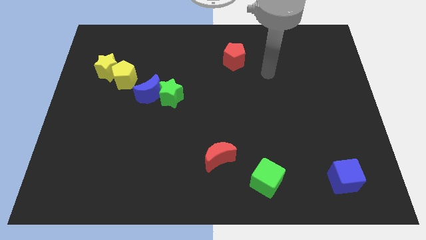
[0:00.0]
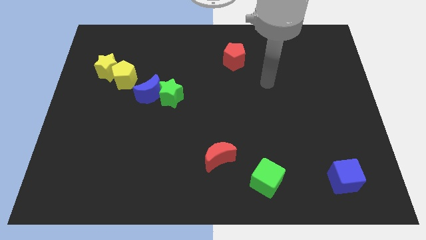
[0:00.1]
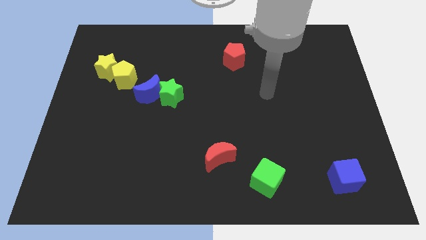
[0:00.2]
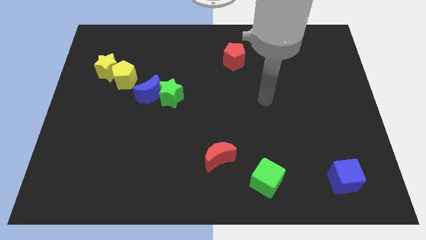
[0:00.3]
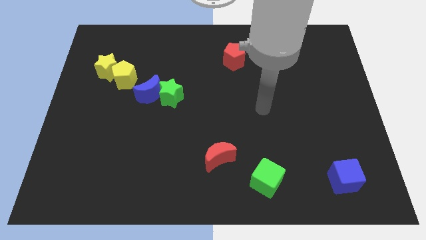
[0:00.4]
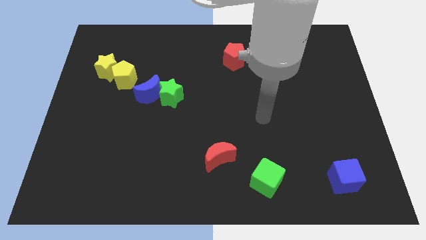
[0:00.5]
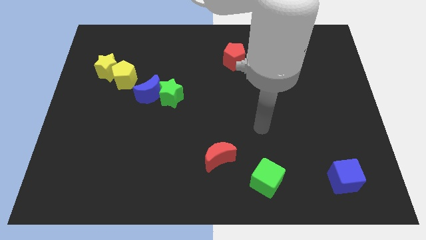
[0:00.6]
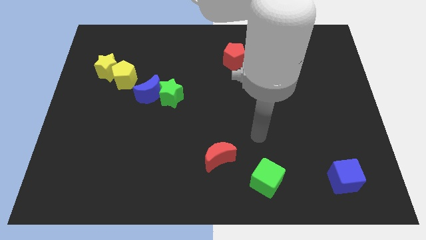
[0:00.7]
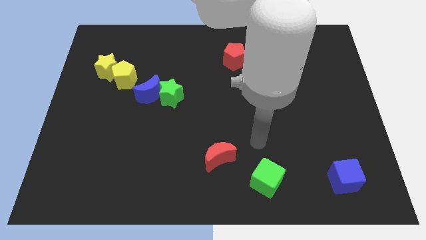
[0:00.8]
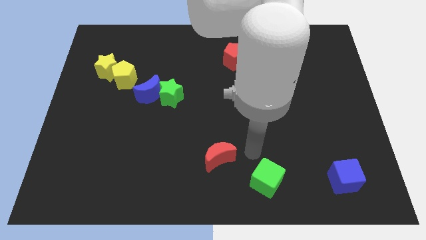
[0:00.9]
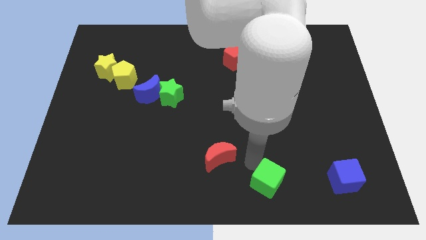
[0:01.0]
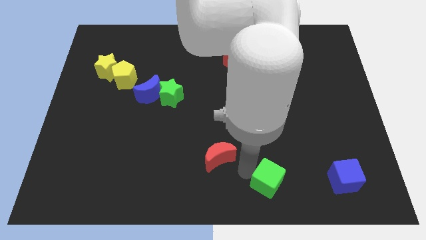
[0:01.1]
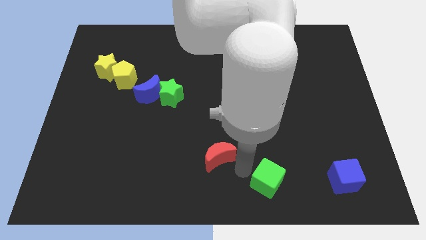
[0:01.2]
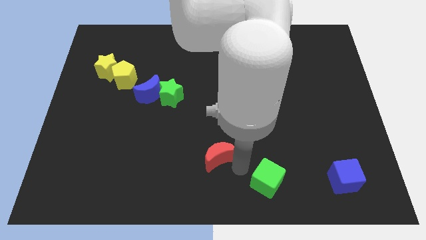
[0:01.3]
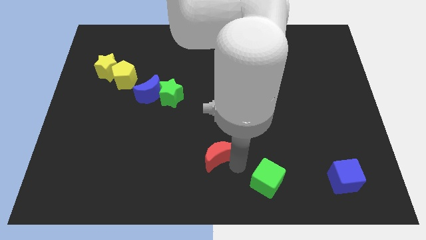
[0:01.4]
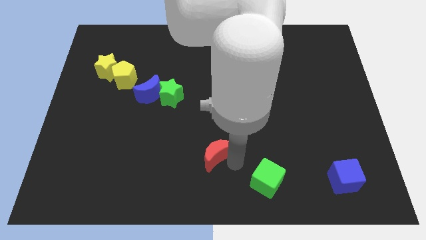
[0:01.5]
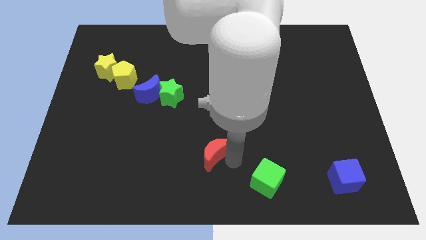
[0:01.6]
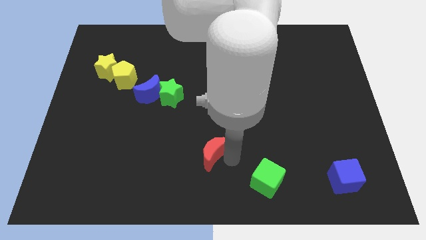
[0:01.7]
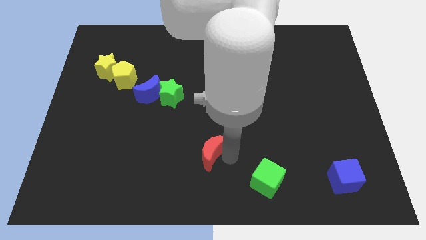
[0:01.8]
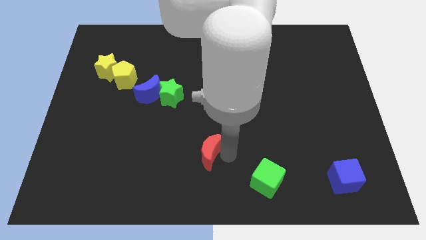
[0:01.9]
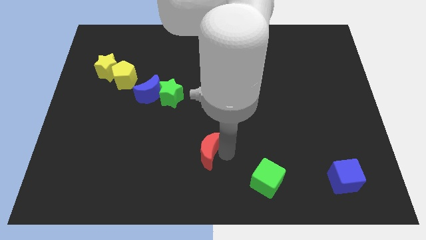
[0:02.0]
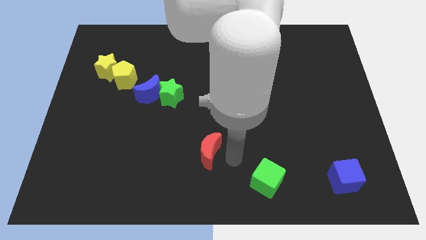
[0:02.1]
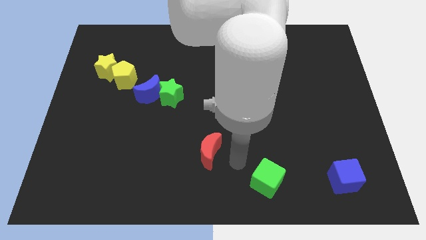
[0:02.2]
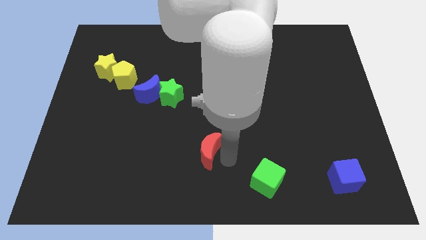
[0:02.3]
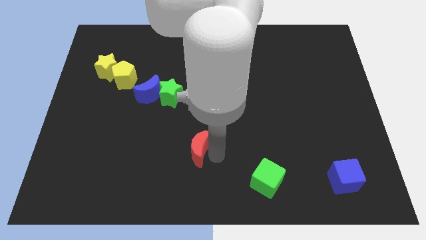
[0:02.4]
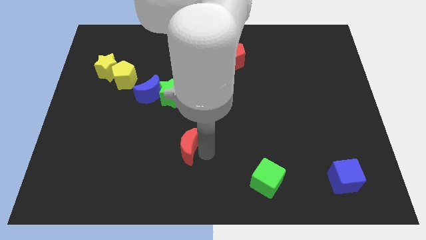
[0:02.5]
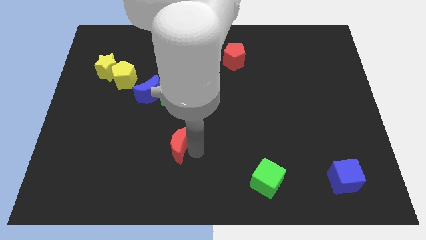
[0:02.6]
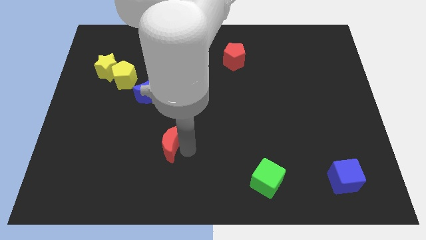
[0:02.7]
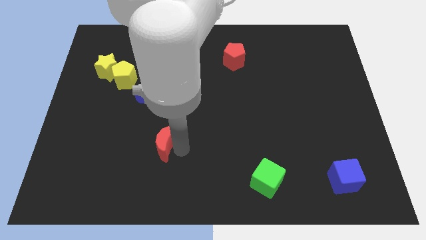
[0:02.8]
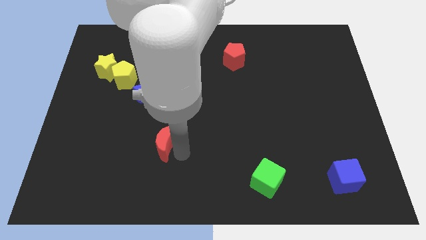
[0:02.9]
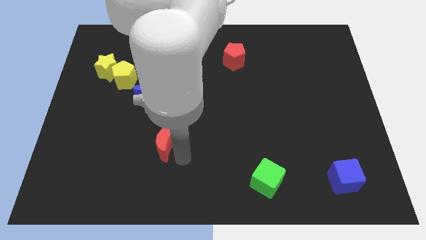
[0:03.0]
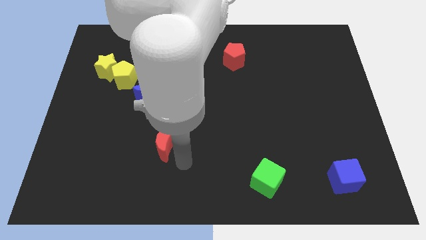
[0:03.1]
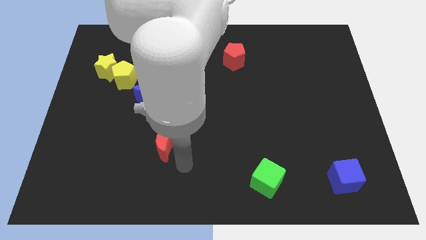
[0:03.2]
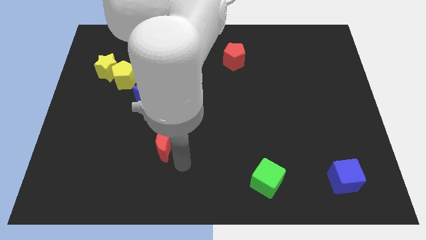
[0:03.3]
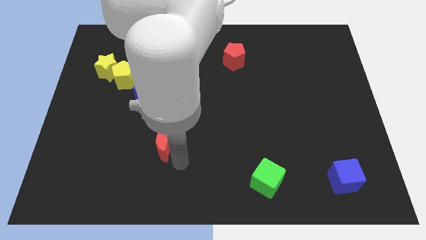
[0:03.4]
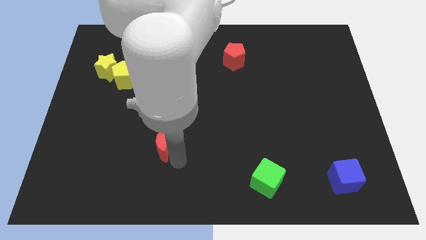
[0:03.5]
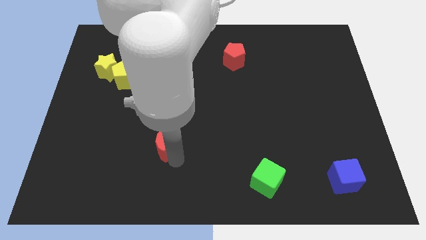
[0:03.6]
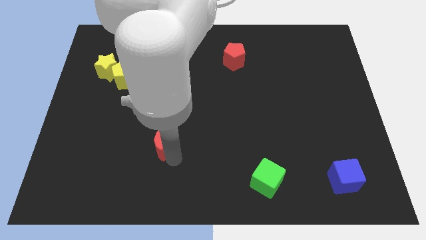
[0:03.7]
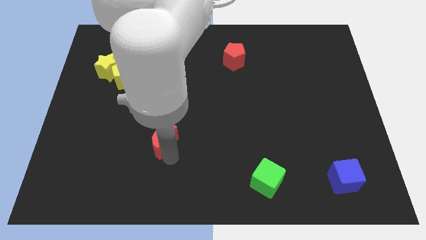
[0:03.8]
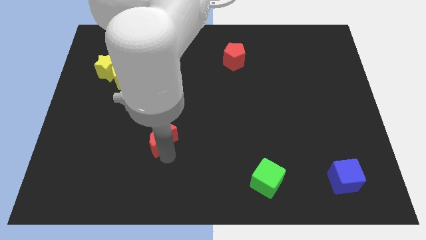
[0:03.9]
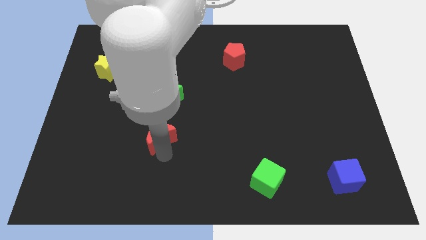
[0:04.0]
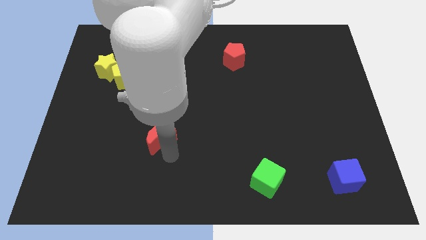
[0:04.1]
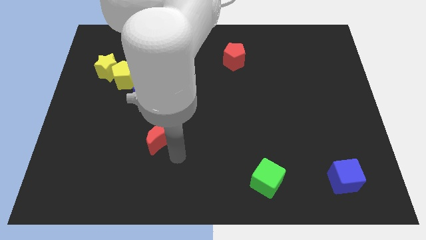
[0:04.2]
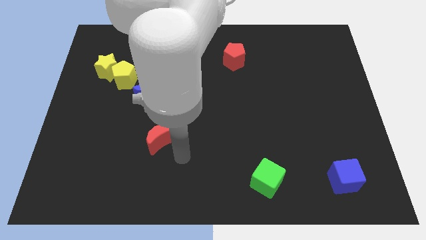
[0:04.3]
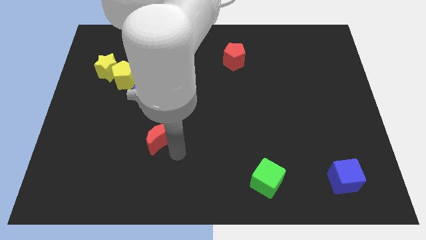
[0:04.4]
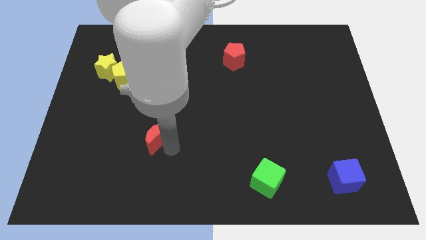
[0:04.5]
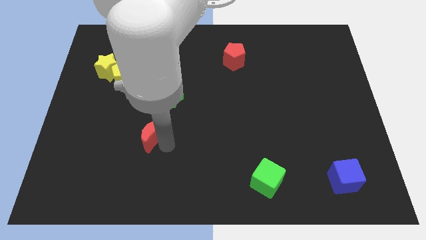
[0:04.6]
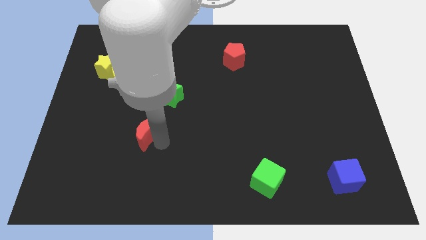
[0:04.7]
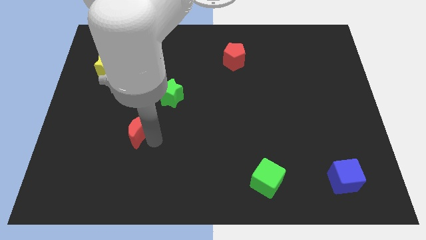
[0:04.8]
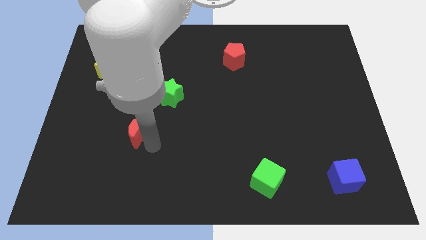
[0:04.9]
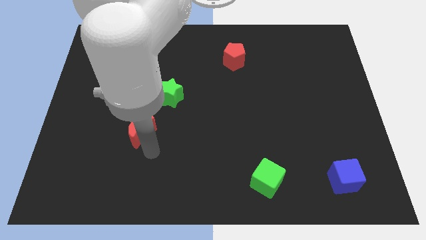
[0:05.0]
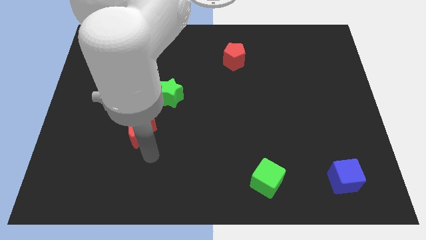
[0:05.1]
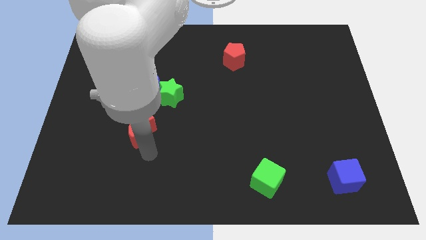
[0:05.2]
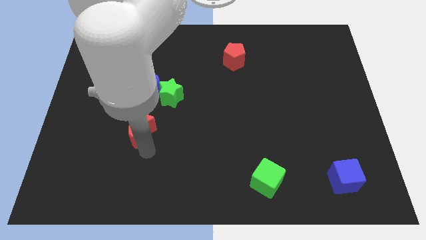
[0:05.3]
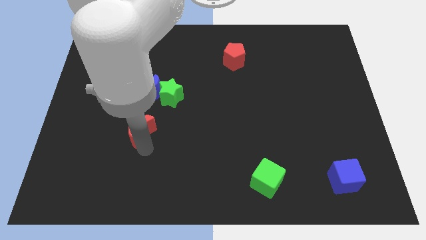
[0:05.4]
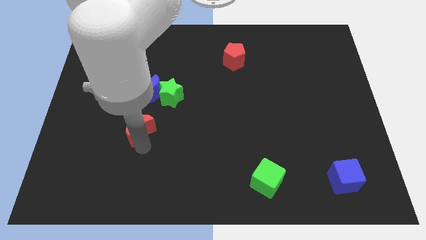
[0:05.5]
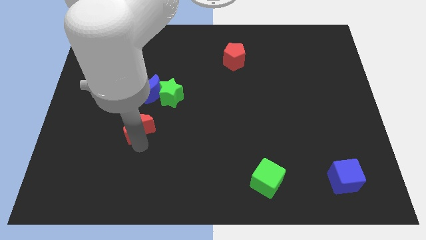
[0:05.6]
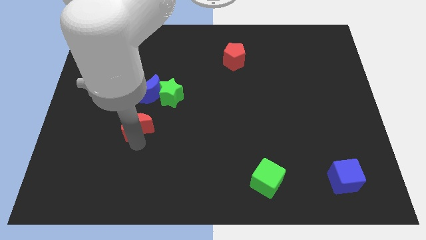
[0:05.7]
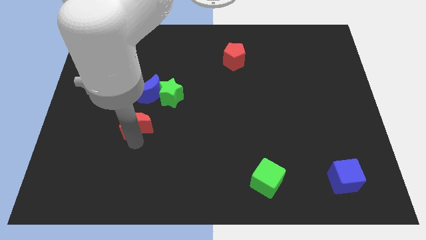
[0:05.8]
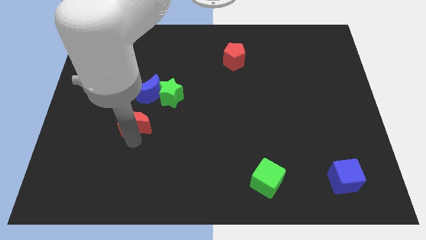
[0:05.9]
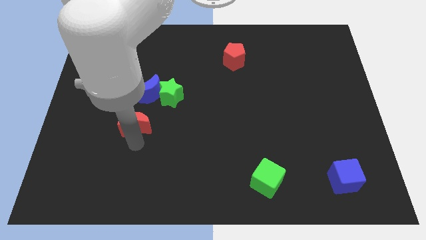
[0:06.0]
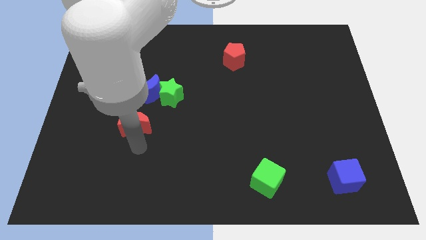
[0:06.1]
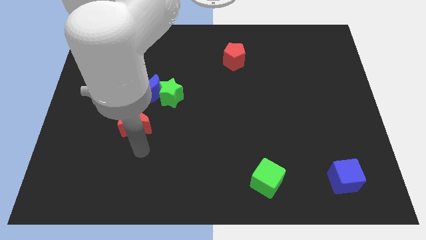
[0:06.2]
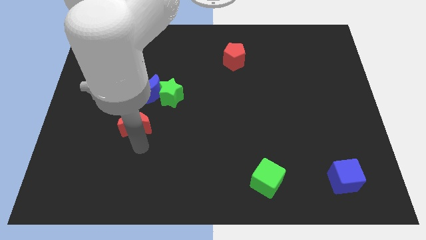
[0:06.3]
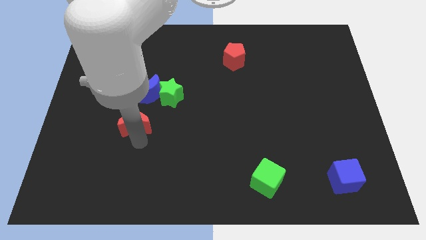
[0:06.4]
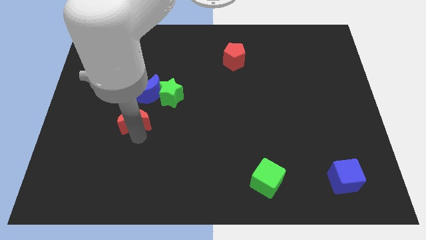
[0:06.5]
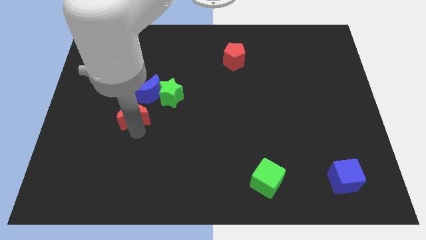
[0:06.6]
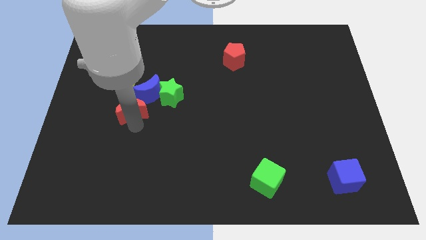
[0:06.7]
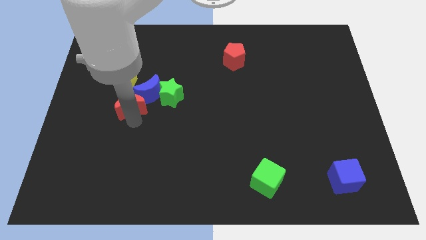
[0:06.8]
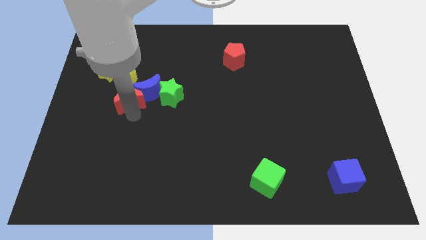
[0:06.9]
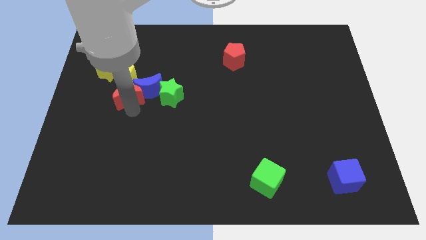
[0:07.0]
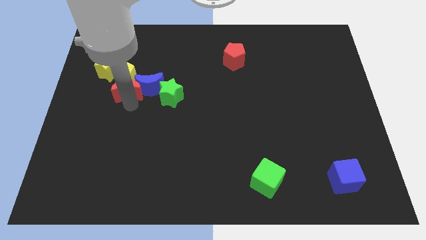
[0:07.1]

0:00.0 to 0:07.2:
slide the red moon towards the yellow pentagon
